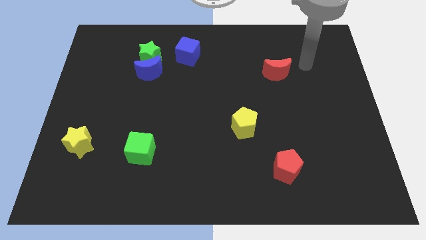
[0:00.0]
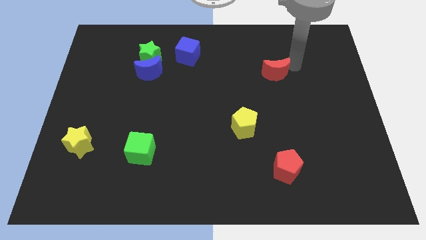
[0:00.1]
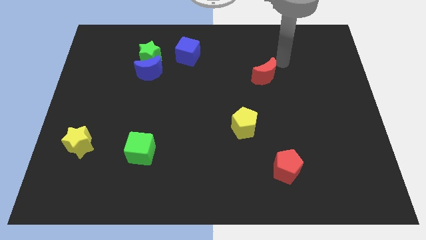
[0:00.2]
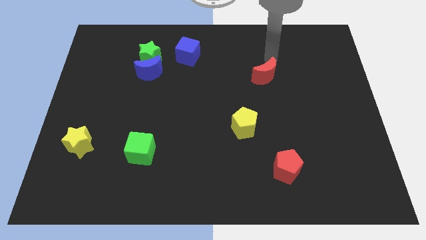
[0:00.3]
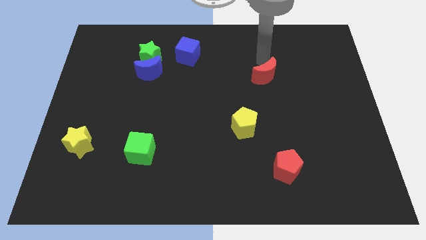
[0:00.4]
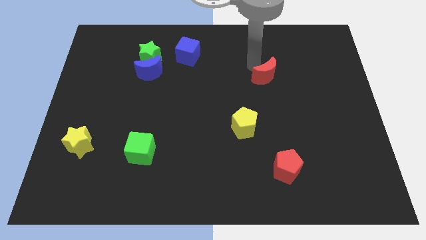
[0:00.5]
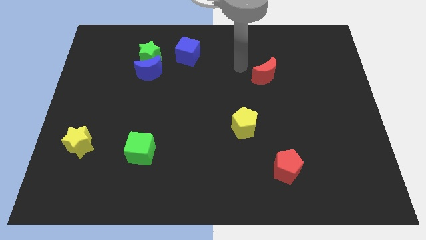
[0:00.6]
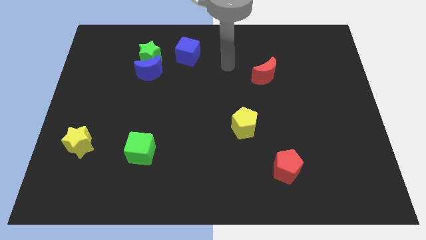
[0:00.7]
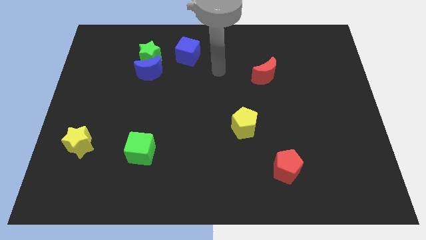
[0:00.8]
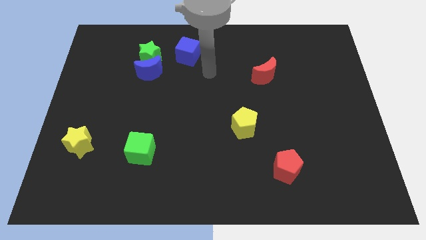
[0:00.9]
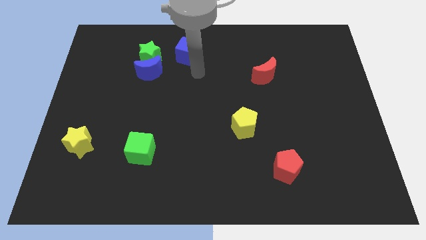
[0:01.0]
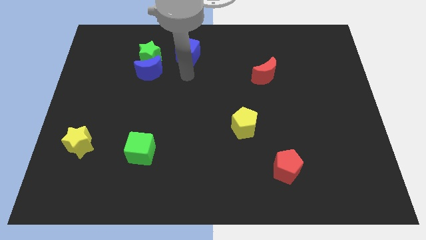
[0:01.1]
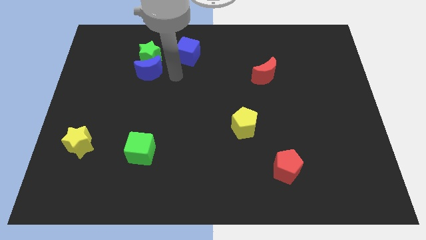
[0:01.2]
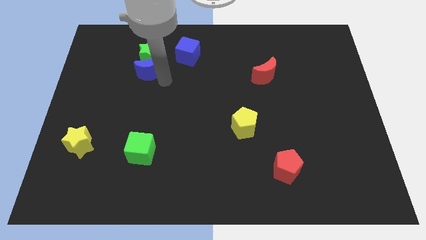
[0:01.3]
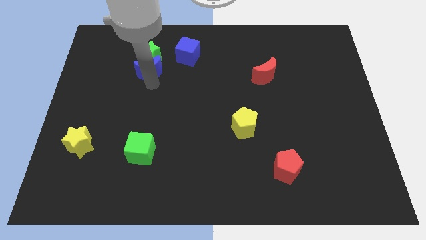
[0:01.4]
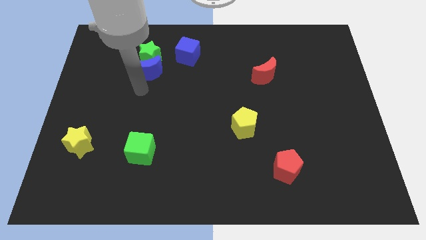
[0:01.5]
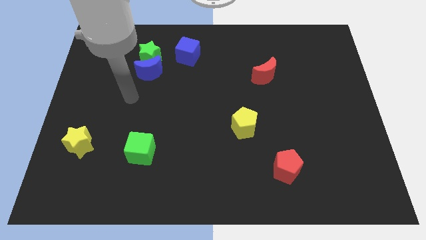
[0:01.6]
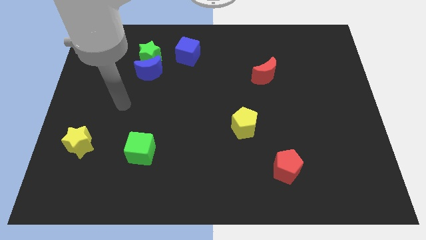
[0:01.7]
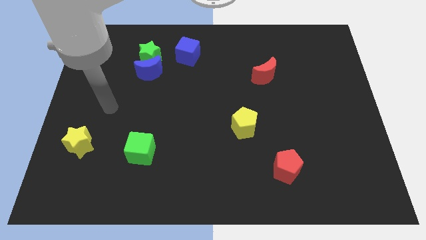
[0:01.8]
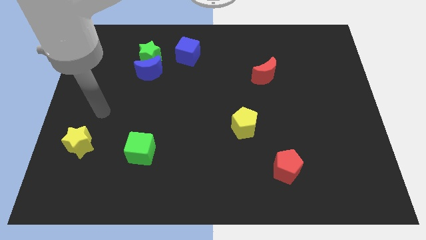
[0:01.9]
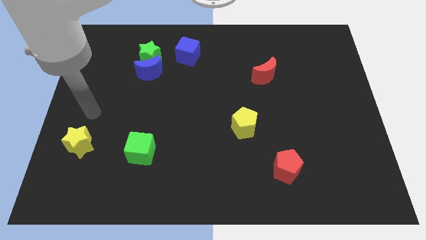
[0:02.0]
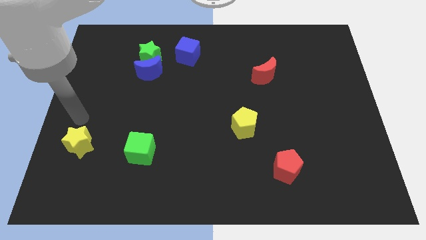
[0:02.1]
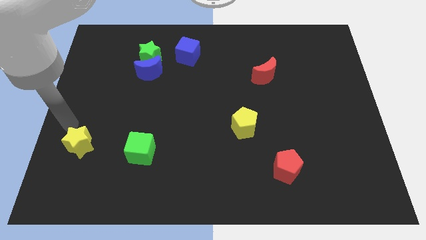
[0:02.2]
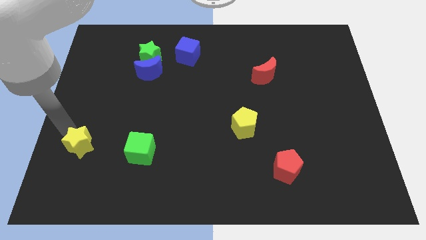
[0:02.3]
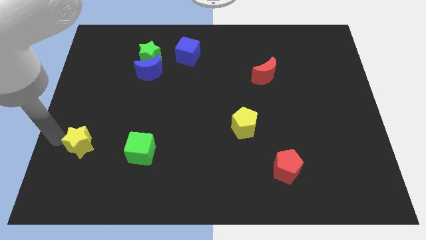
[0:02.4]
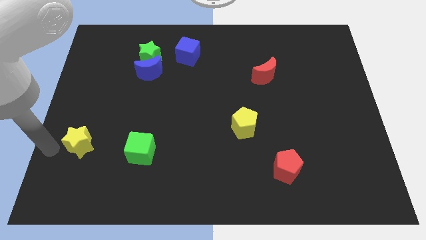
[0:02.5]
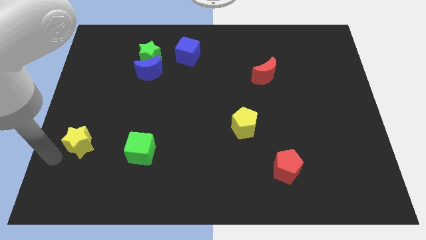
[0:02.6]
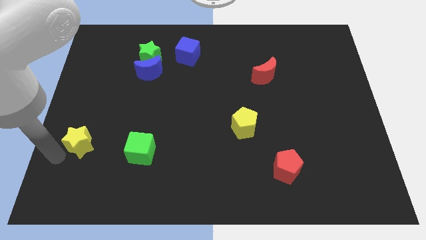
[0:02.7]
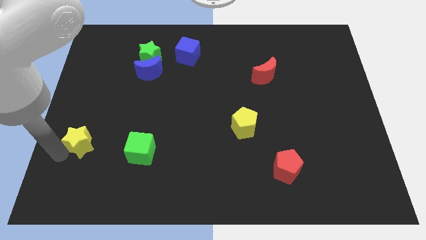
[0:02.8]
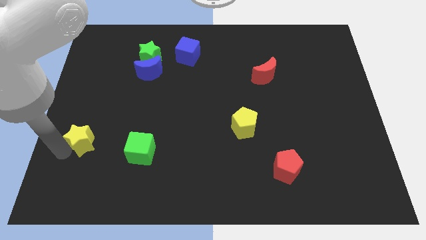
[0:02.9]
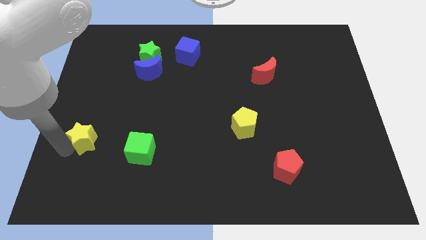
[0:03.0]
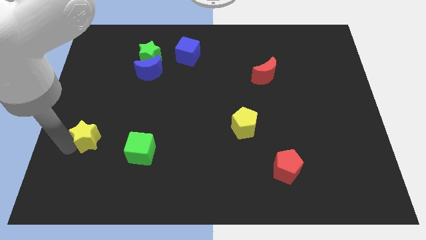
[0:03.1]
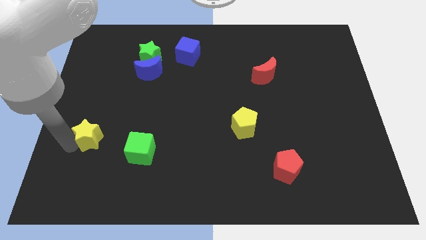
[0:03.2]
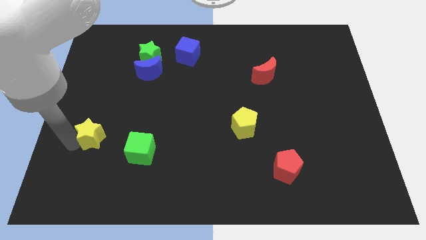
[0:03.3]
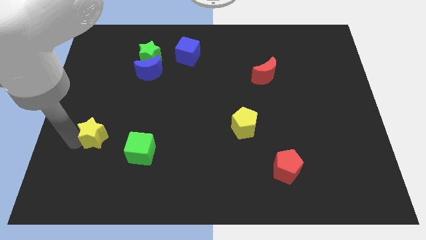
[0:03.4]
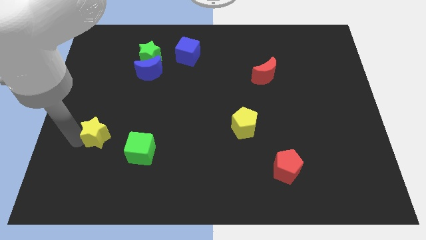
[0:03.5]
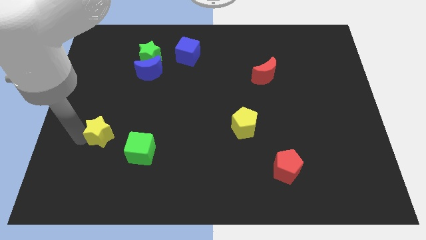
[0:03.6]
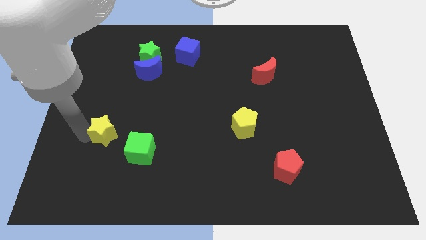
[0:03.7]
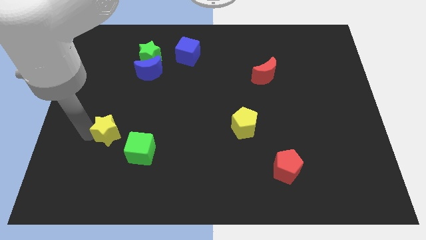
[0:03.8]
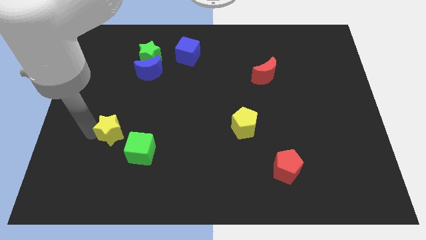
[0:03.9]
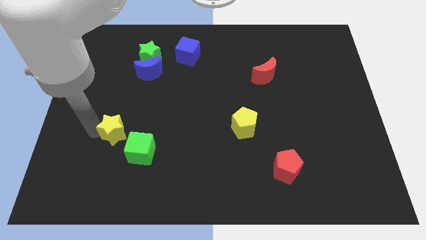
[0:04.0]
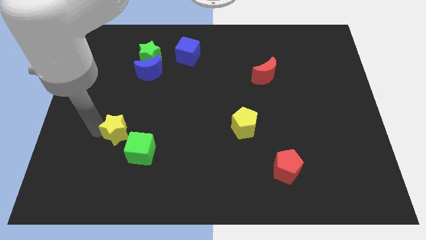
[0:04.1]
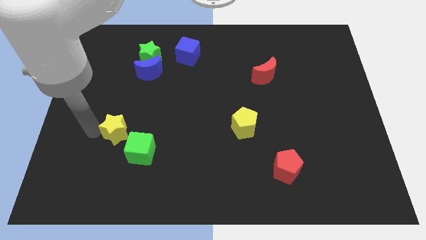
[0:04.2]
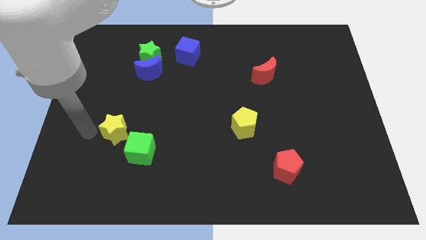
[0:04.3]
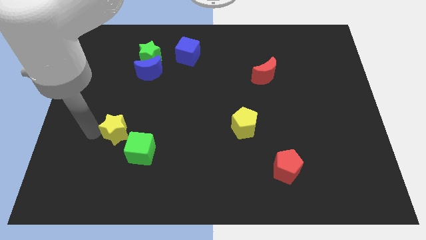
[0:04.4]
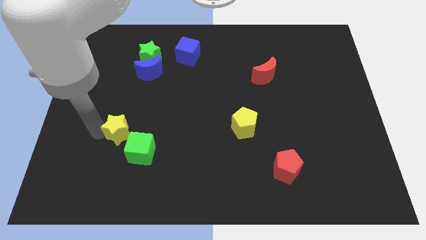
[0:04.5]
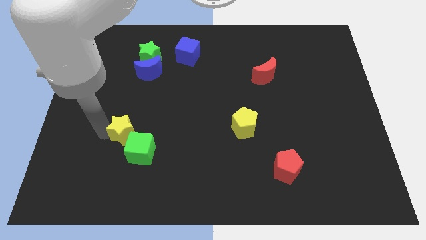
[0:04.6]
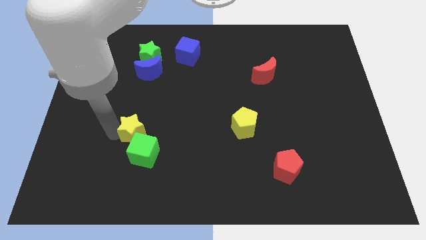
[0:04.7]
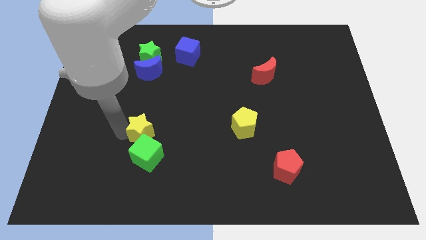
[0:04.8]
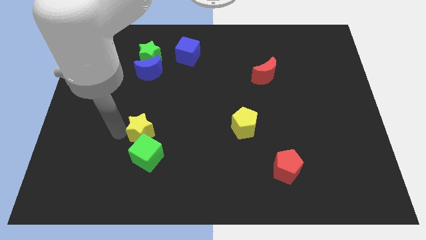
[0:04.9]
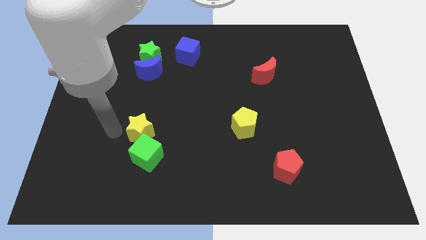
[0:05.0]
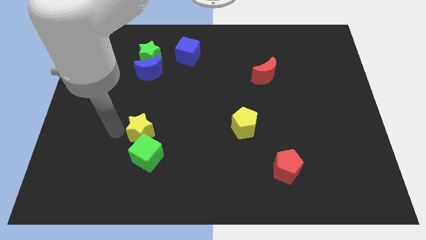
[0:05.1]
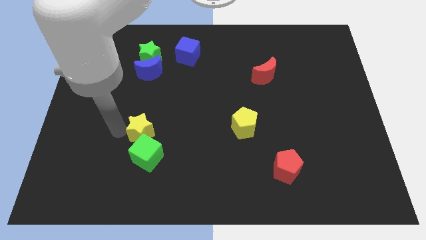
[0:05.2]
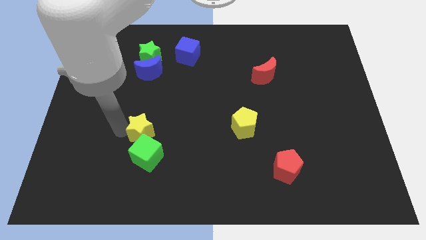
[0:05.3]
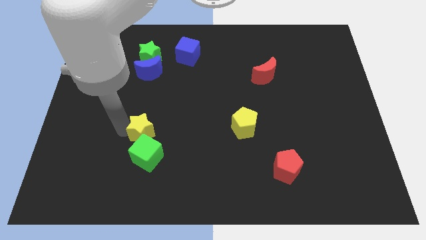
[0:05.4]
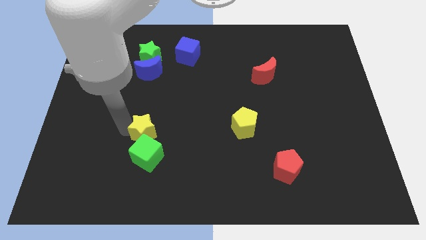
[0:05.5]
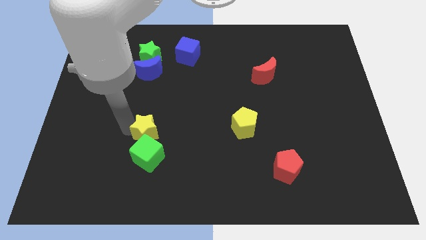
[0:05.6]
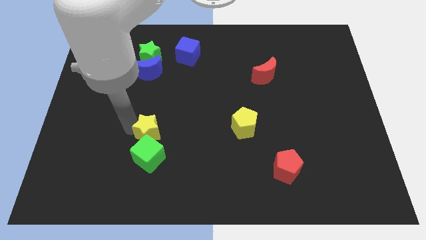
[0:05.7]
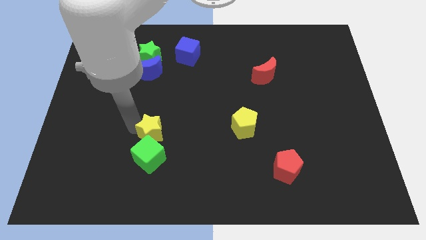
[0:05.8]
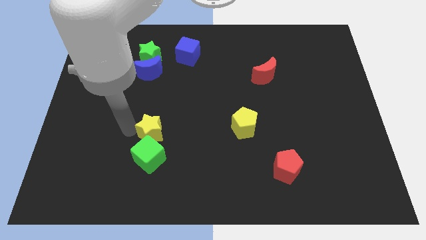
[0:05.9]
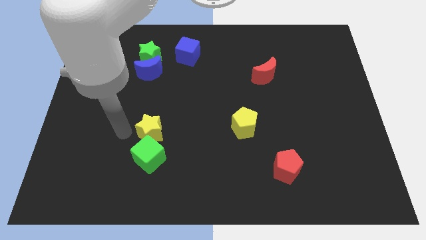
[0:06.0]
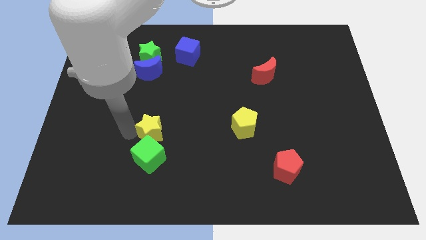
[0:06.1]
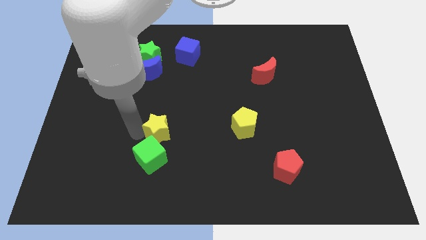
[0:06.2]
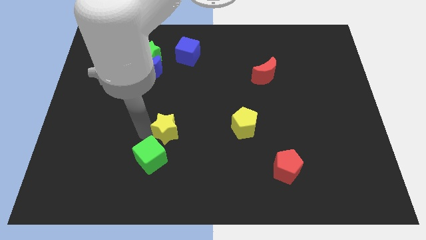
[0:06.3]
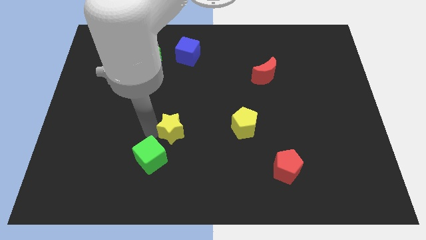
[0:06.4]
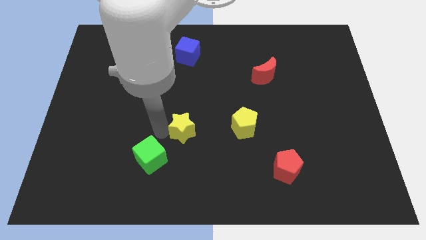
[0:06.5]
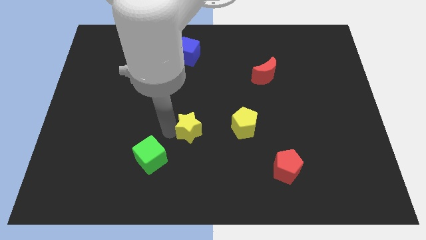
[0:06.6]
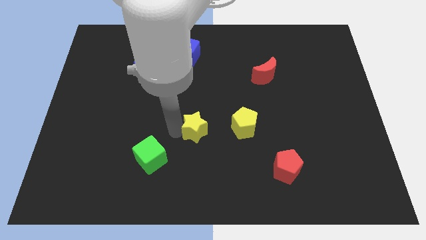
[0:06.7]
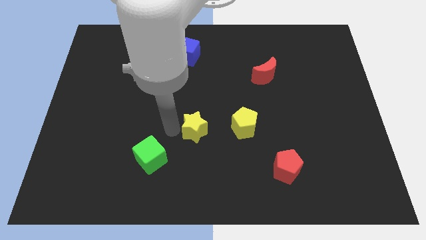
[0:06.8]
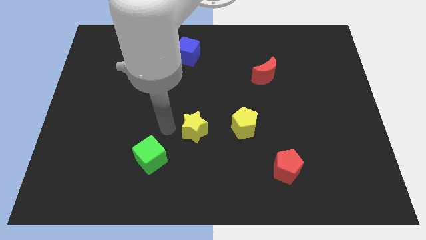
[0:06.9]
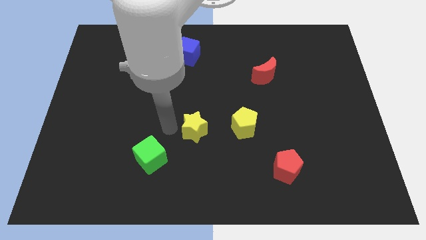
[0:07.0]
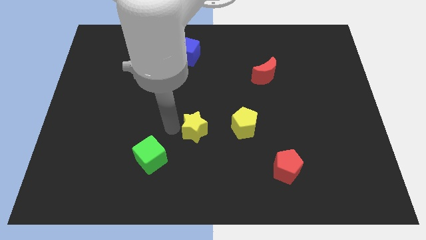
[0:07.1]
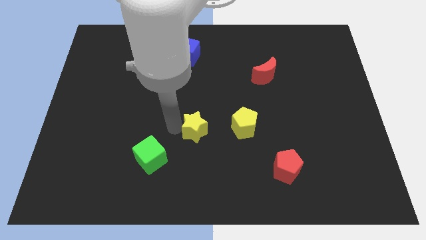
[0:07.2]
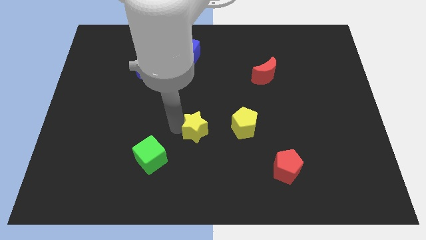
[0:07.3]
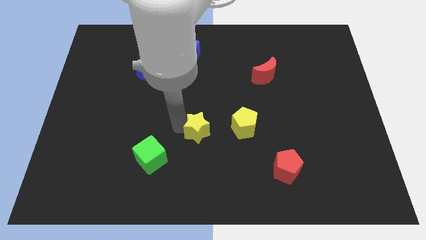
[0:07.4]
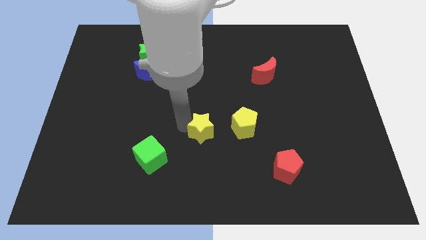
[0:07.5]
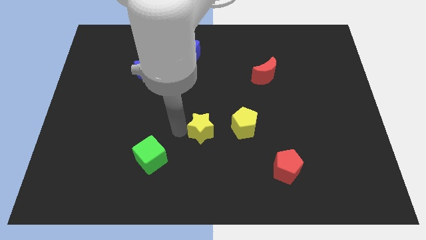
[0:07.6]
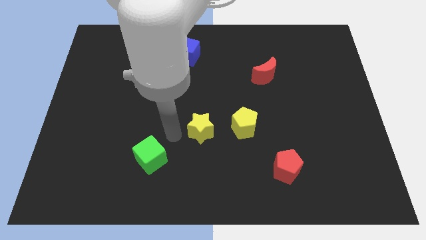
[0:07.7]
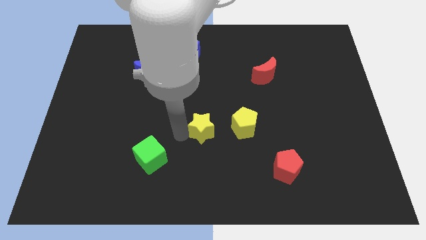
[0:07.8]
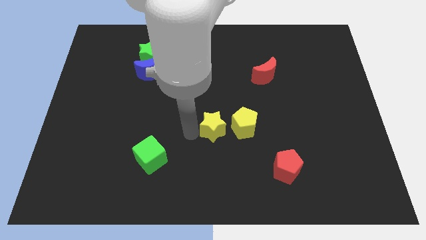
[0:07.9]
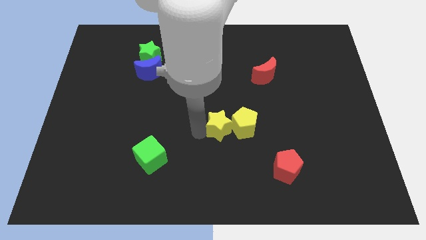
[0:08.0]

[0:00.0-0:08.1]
push the yellow star towards the yellow pentagon
